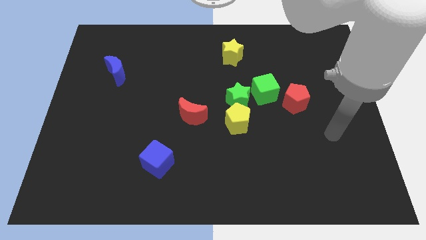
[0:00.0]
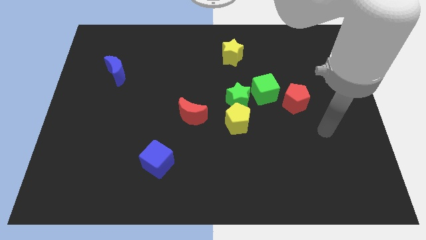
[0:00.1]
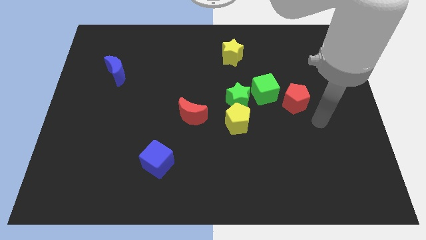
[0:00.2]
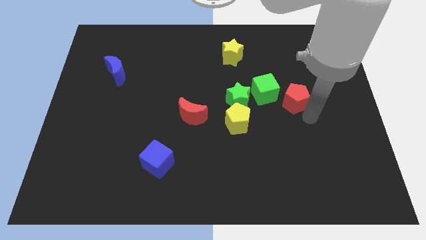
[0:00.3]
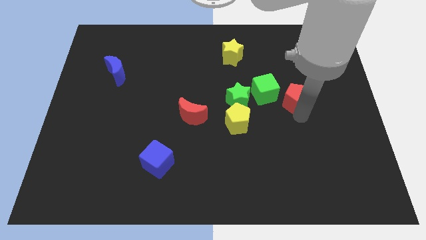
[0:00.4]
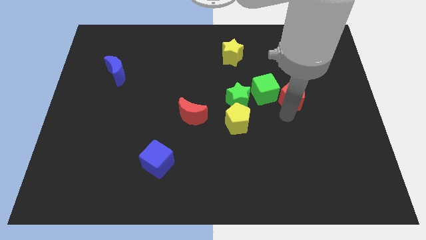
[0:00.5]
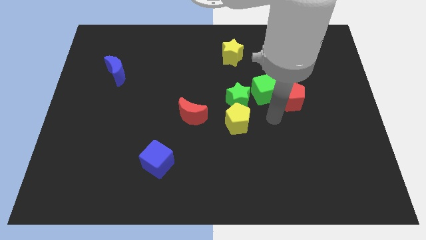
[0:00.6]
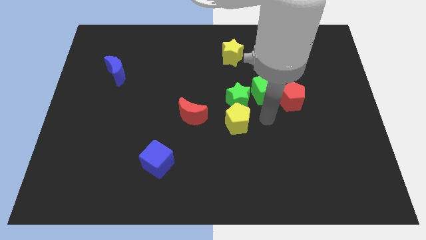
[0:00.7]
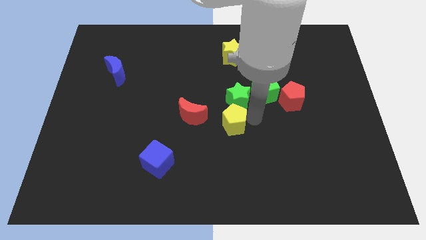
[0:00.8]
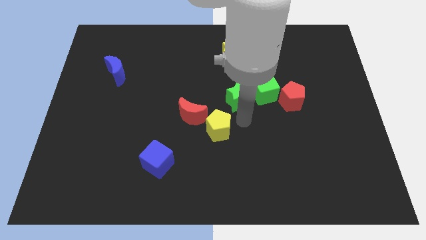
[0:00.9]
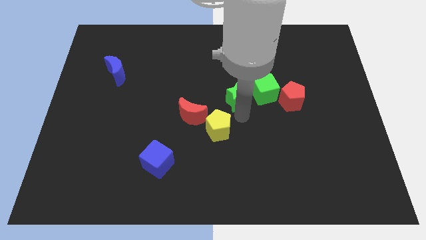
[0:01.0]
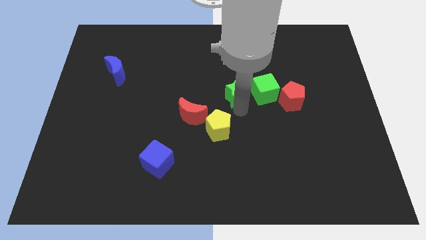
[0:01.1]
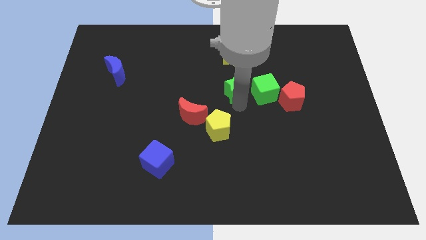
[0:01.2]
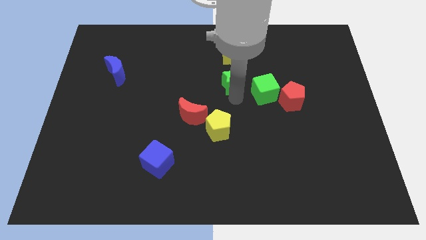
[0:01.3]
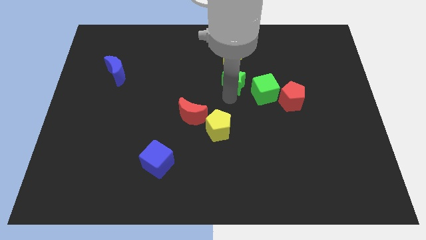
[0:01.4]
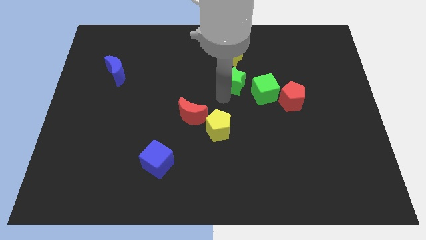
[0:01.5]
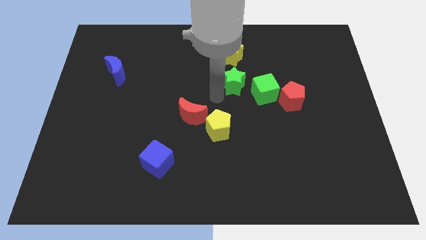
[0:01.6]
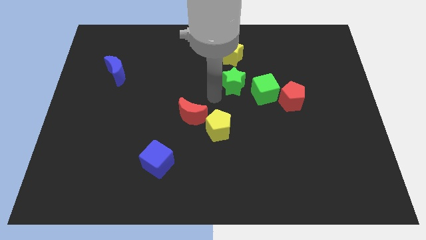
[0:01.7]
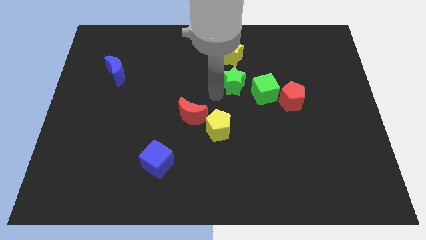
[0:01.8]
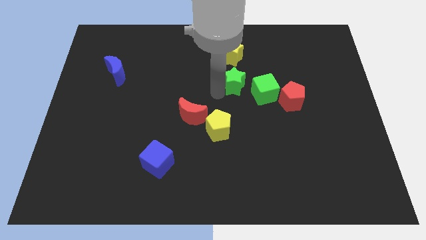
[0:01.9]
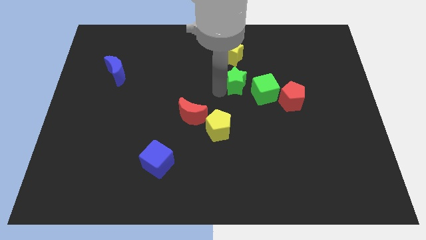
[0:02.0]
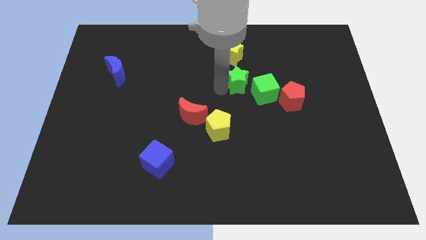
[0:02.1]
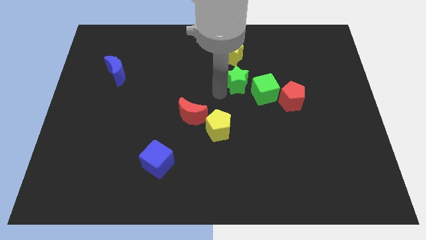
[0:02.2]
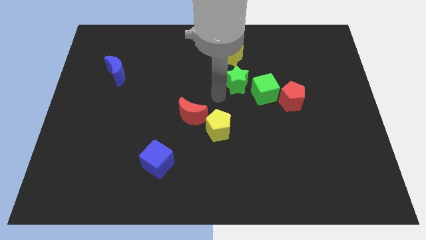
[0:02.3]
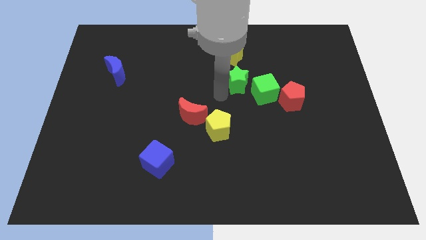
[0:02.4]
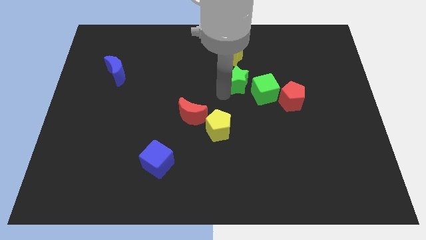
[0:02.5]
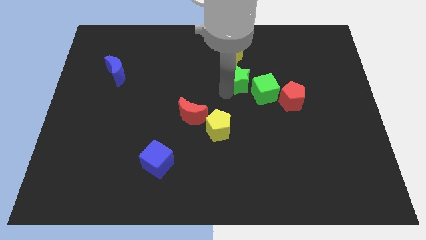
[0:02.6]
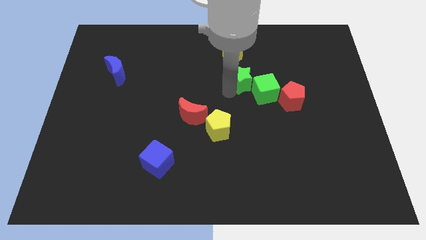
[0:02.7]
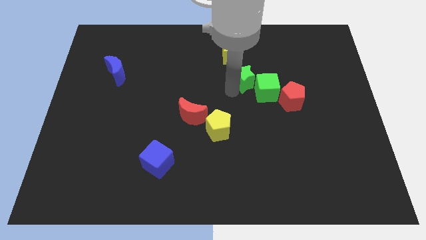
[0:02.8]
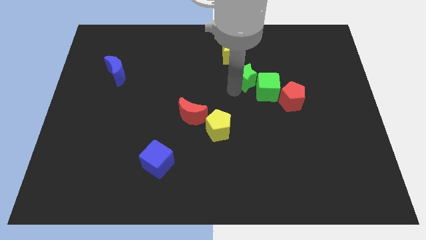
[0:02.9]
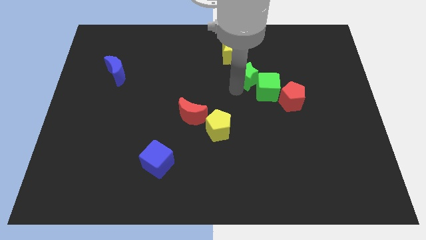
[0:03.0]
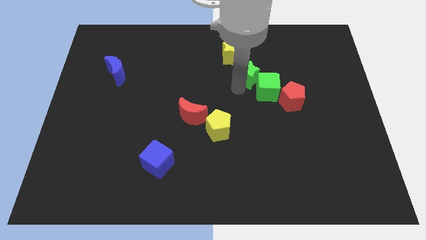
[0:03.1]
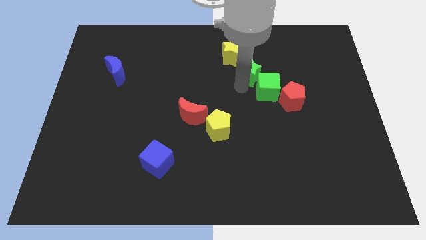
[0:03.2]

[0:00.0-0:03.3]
move the green star upwards and right diagonally a bit

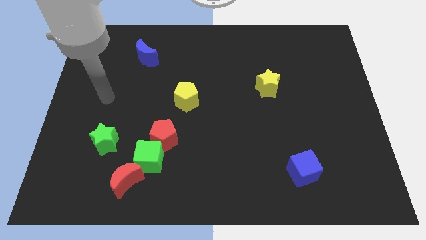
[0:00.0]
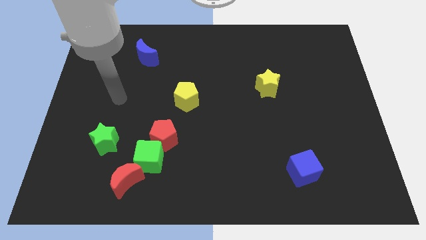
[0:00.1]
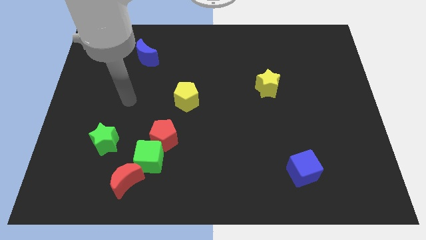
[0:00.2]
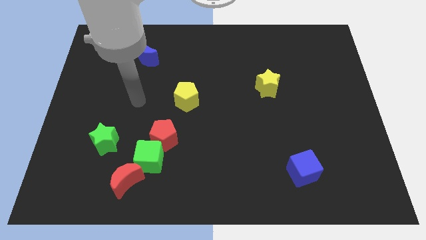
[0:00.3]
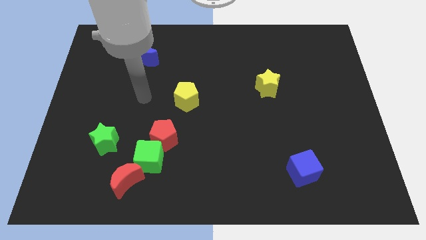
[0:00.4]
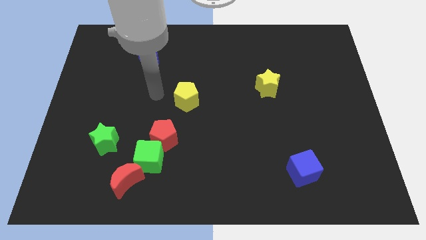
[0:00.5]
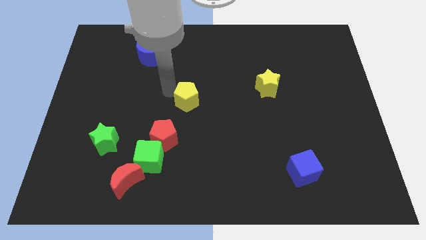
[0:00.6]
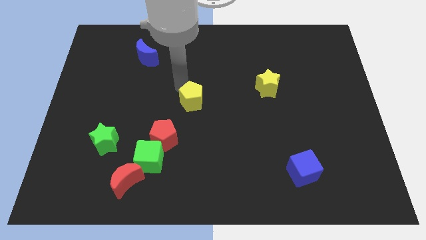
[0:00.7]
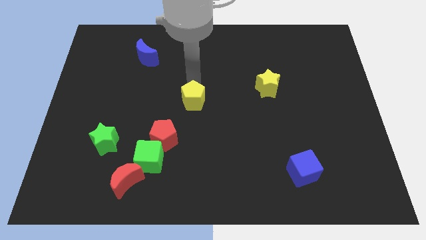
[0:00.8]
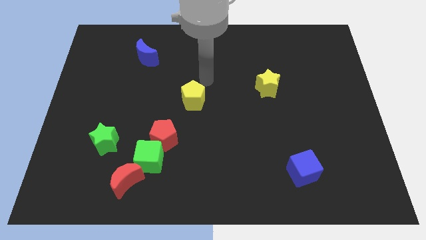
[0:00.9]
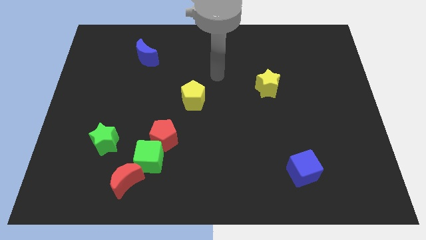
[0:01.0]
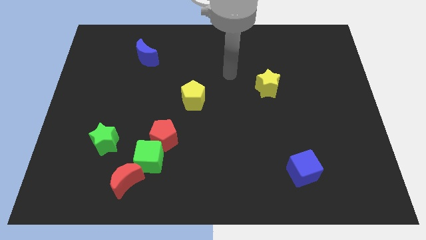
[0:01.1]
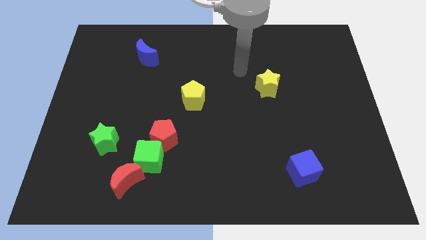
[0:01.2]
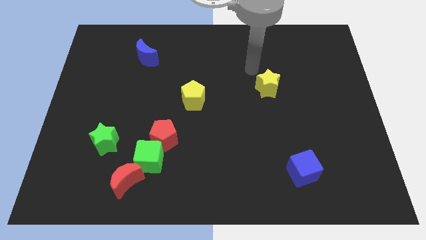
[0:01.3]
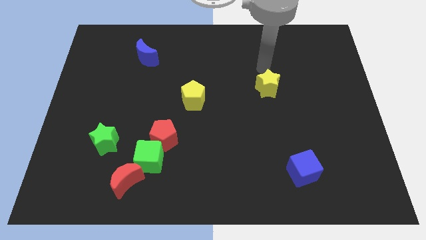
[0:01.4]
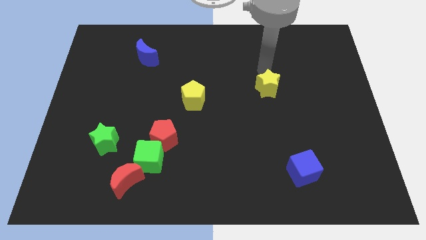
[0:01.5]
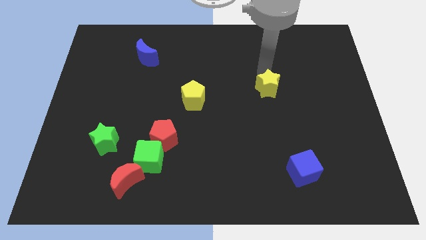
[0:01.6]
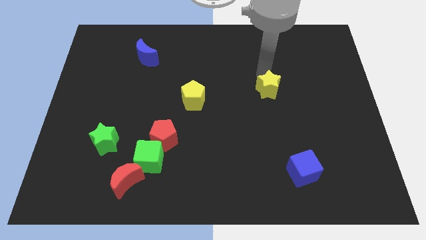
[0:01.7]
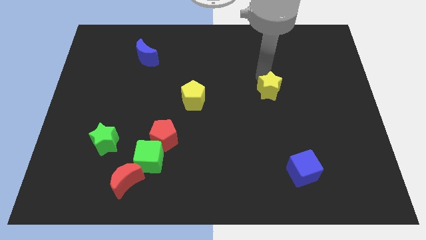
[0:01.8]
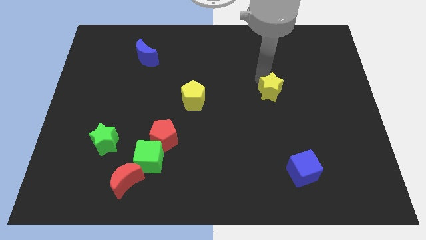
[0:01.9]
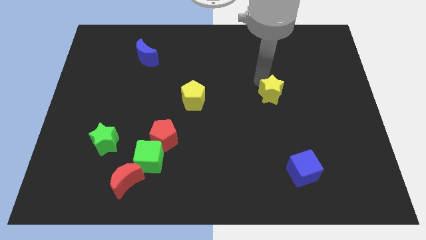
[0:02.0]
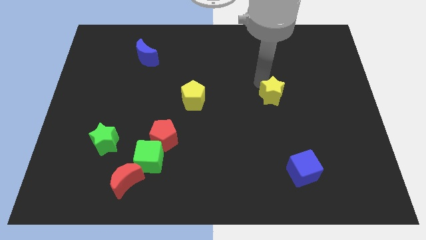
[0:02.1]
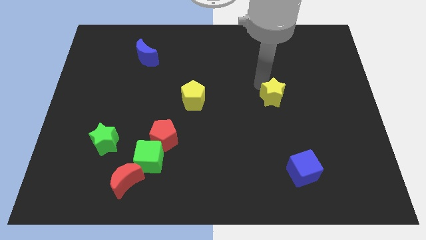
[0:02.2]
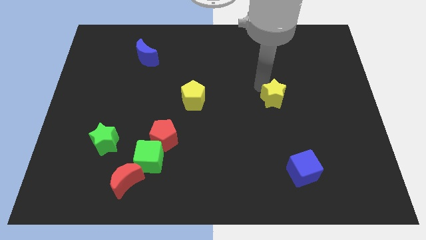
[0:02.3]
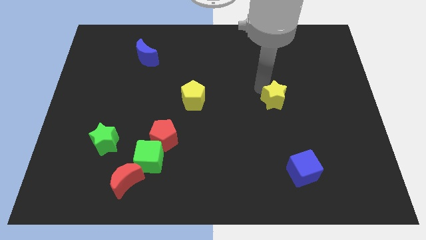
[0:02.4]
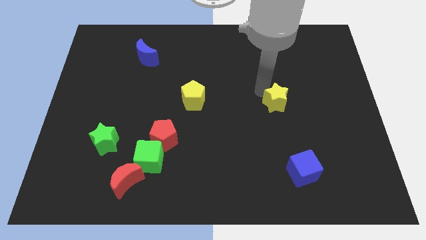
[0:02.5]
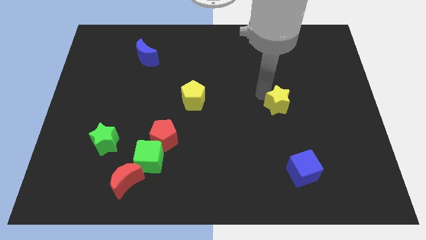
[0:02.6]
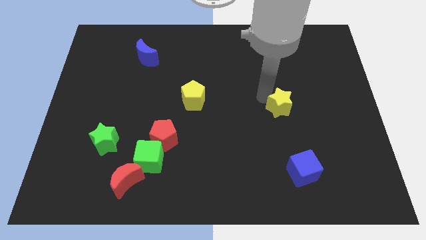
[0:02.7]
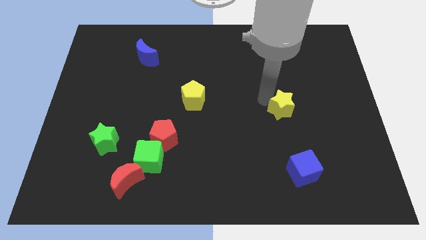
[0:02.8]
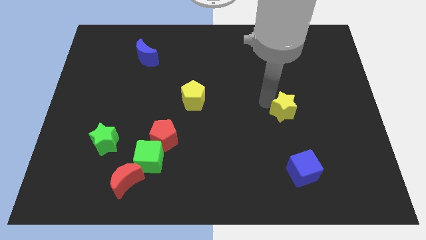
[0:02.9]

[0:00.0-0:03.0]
move the yellow star down slightly

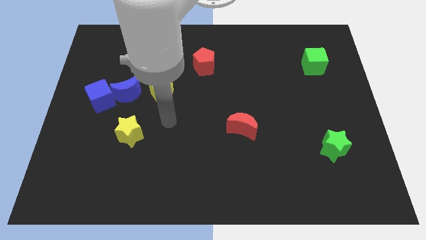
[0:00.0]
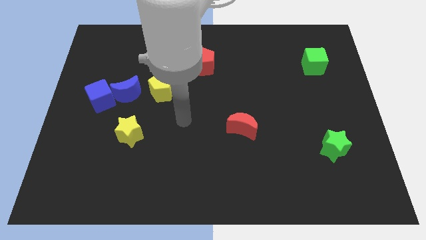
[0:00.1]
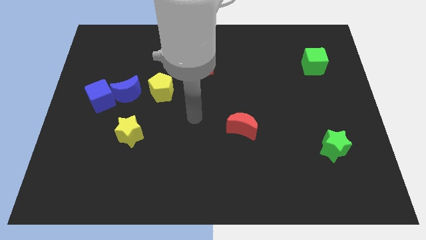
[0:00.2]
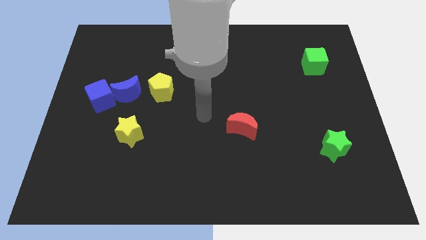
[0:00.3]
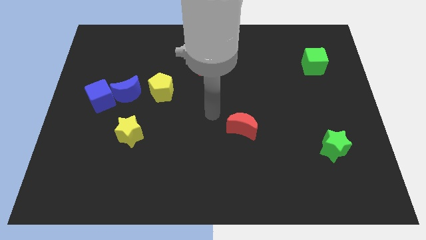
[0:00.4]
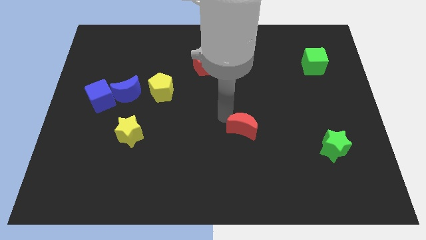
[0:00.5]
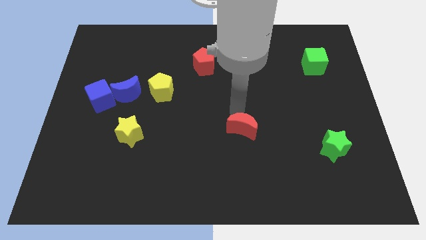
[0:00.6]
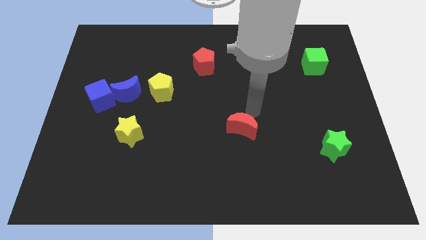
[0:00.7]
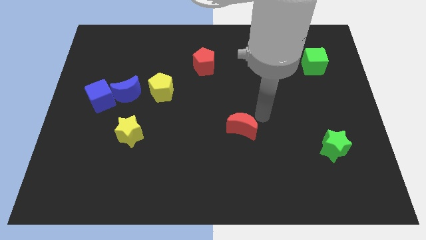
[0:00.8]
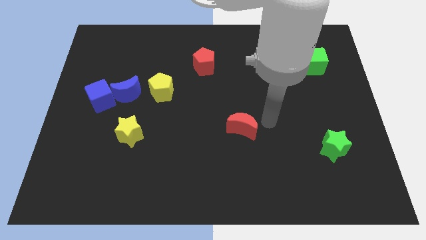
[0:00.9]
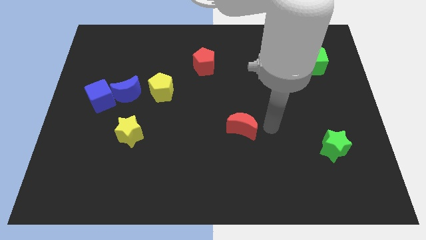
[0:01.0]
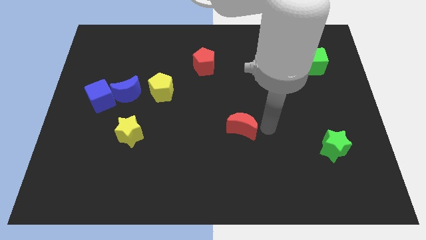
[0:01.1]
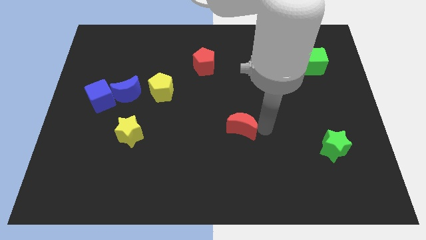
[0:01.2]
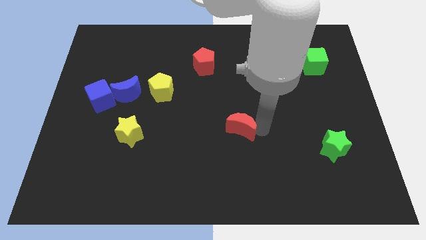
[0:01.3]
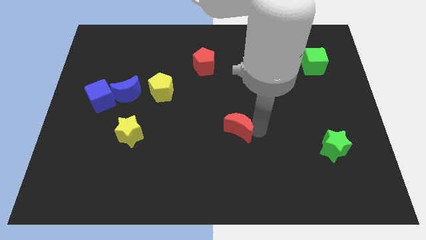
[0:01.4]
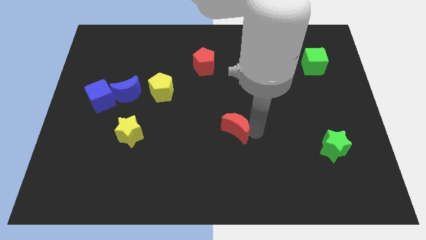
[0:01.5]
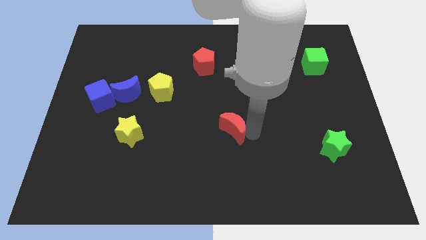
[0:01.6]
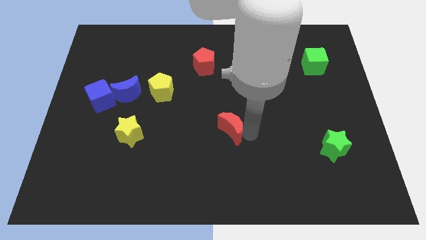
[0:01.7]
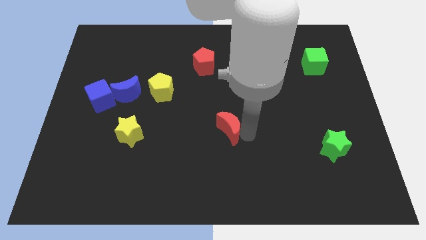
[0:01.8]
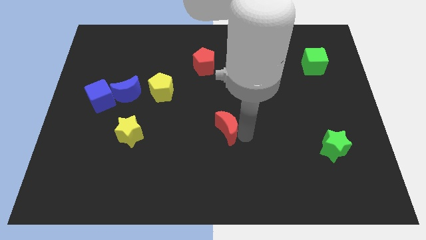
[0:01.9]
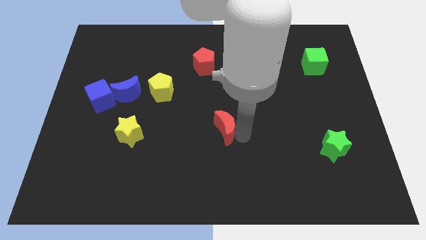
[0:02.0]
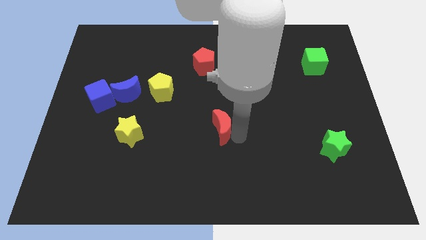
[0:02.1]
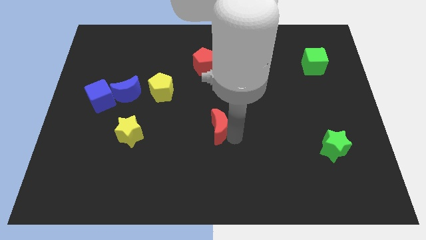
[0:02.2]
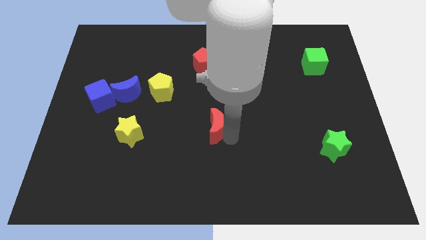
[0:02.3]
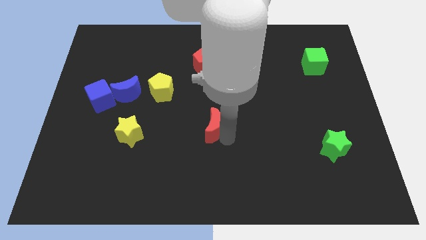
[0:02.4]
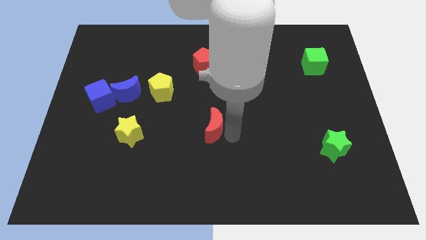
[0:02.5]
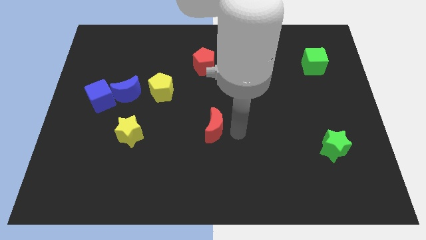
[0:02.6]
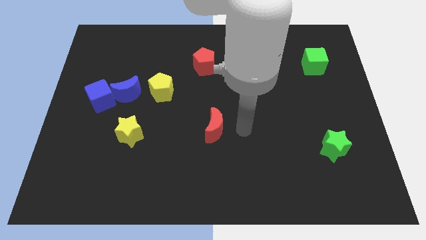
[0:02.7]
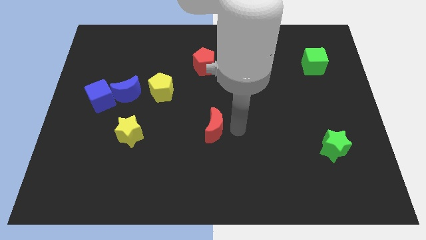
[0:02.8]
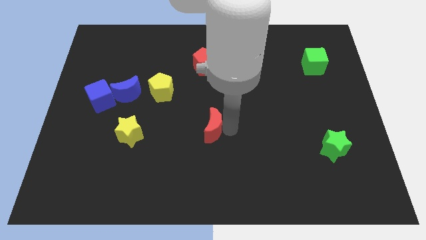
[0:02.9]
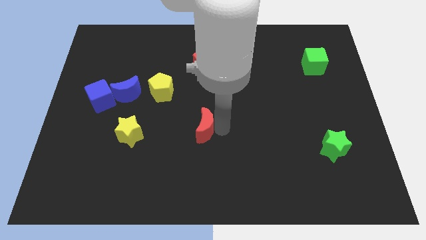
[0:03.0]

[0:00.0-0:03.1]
push the red moon left slightly
